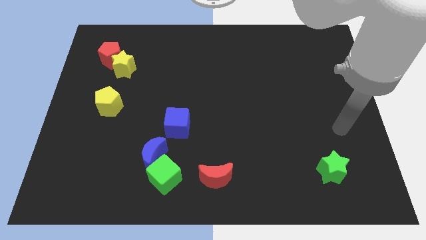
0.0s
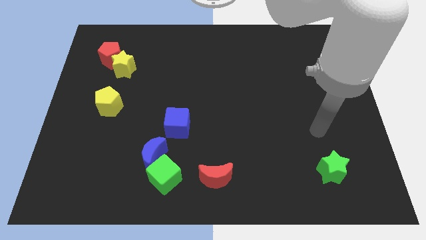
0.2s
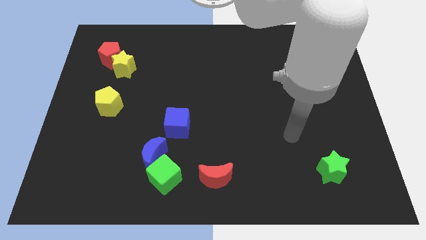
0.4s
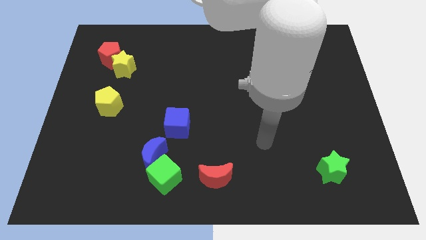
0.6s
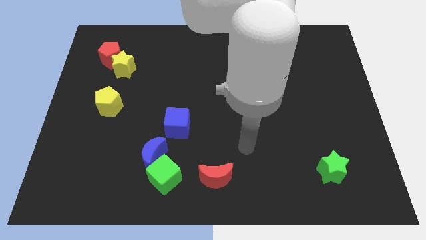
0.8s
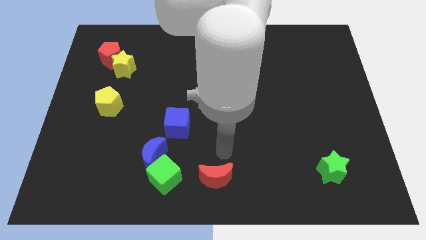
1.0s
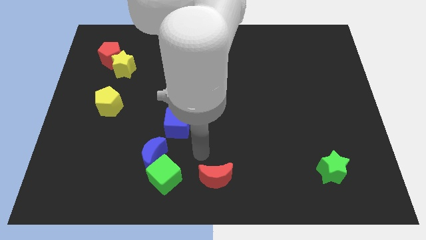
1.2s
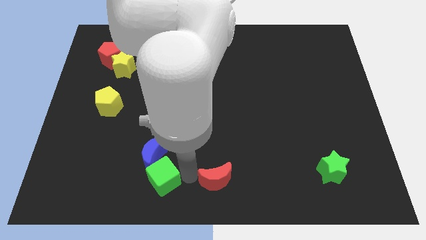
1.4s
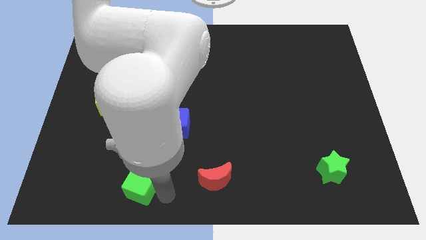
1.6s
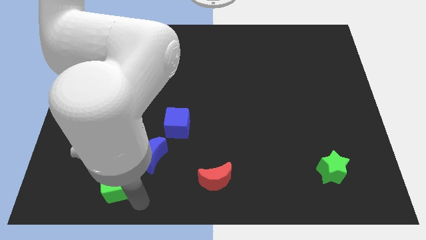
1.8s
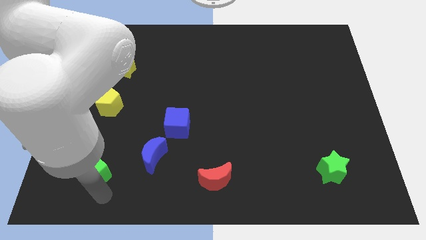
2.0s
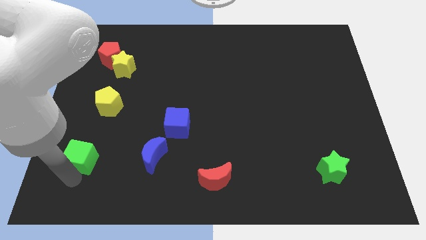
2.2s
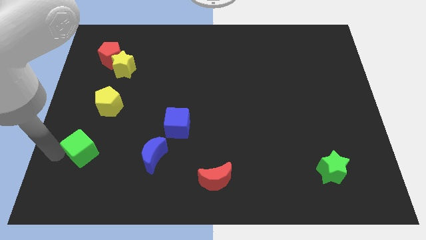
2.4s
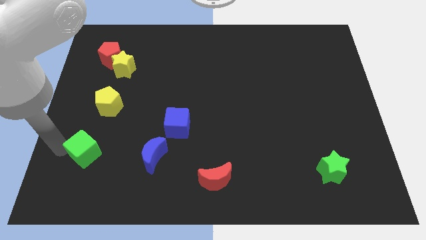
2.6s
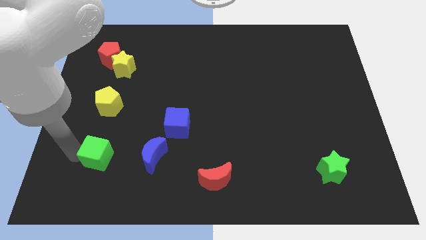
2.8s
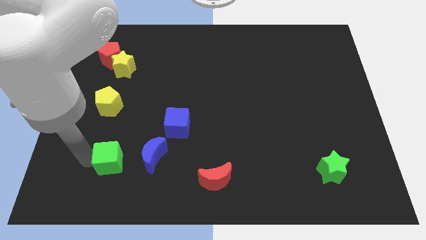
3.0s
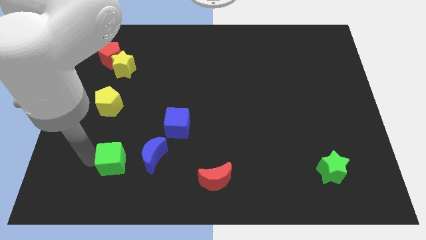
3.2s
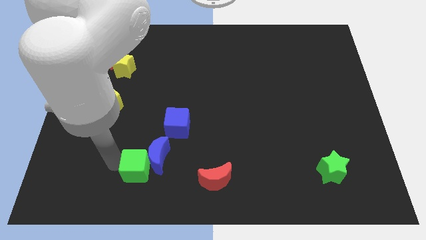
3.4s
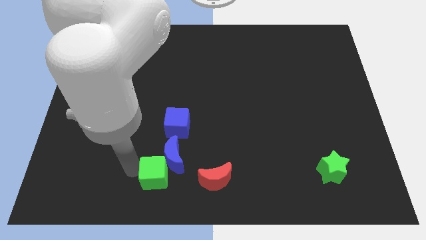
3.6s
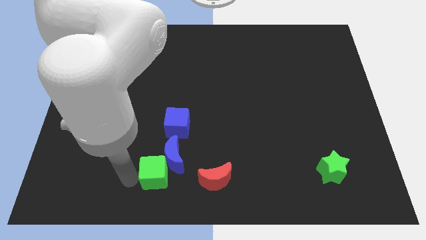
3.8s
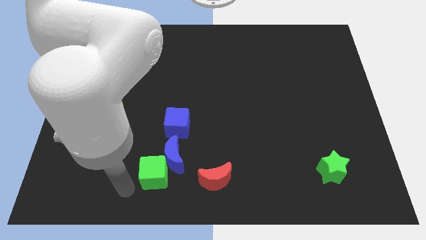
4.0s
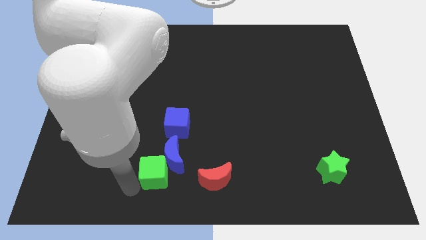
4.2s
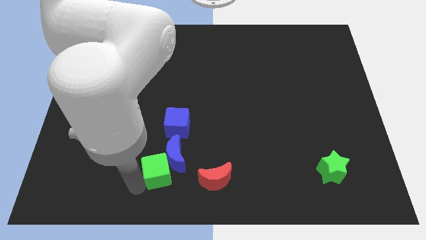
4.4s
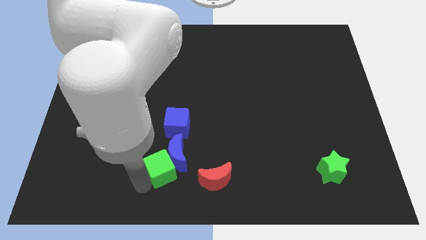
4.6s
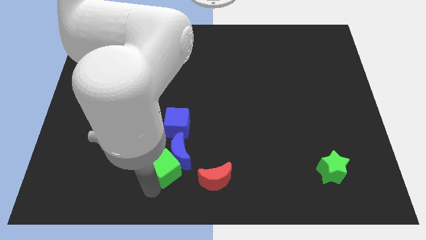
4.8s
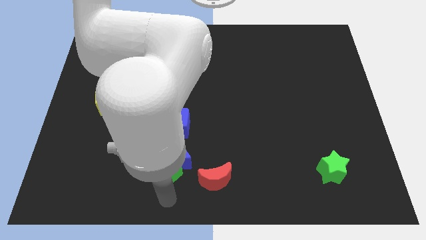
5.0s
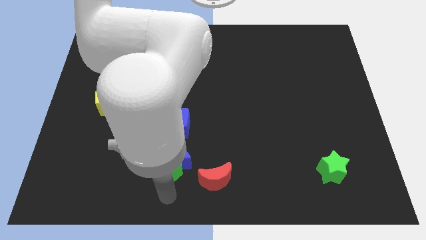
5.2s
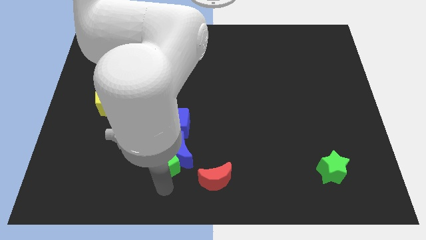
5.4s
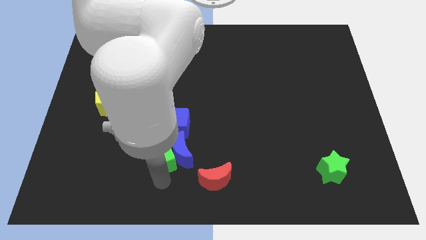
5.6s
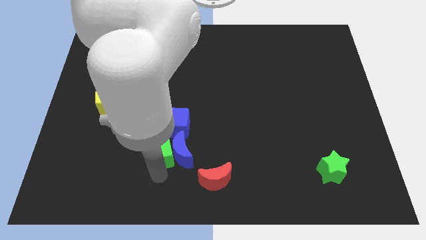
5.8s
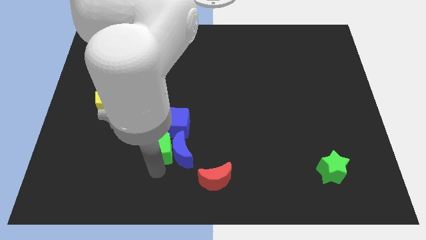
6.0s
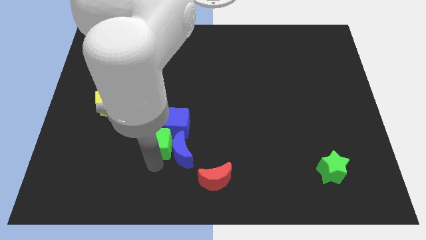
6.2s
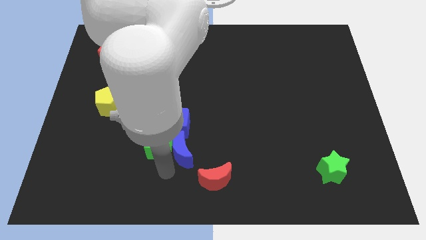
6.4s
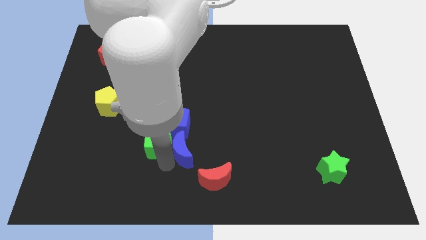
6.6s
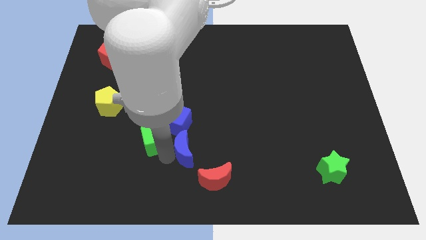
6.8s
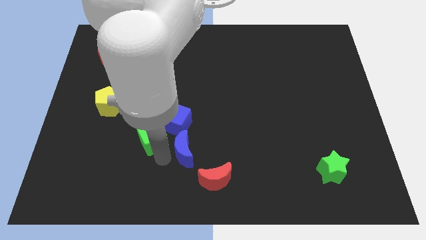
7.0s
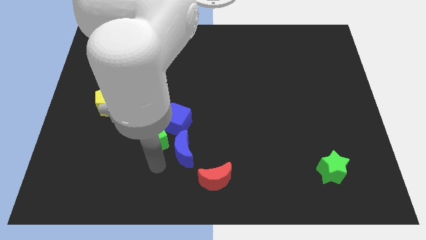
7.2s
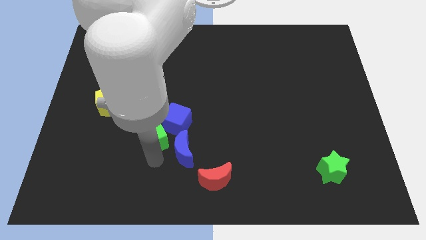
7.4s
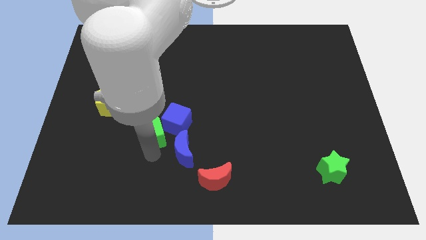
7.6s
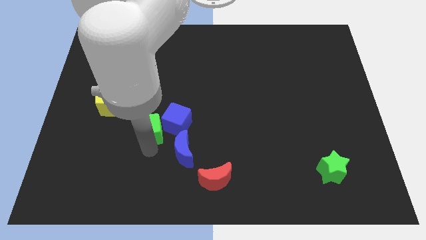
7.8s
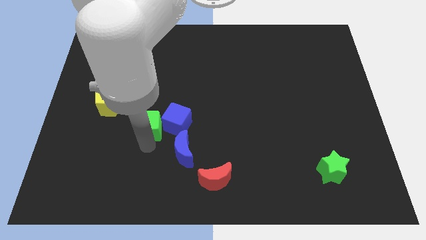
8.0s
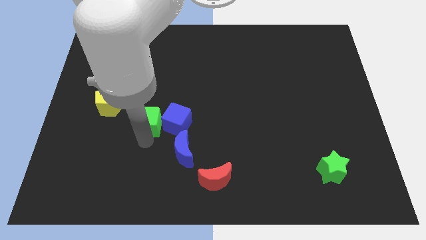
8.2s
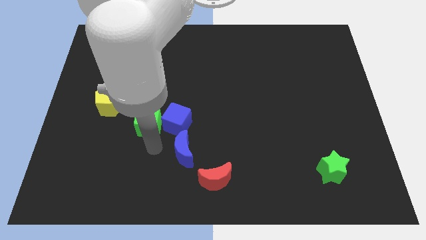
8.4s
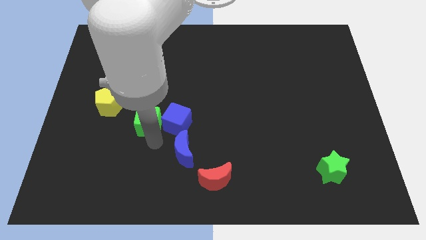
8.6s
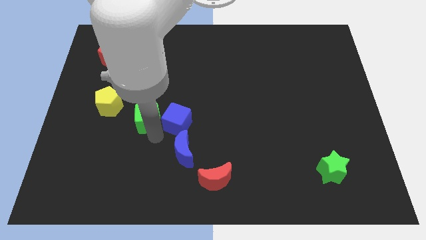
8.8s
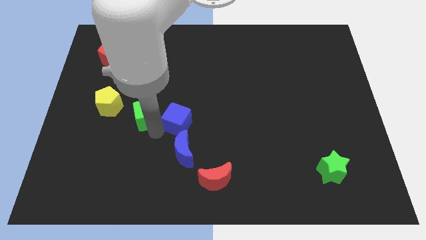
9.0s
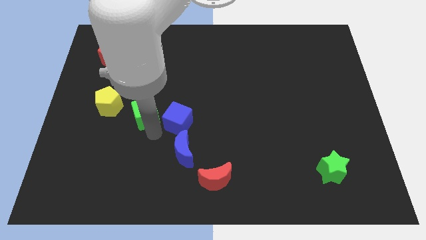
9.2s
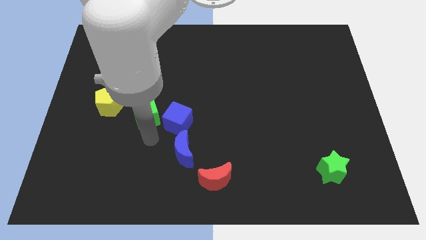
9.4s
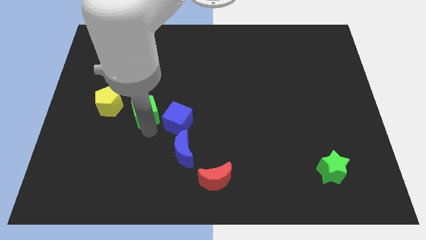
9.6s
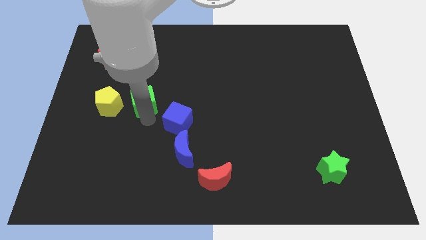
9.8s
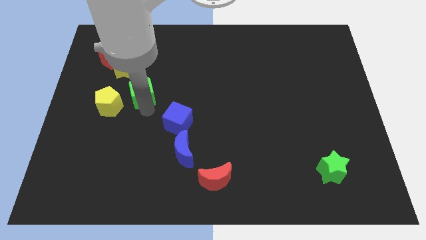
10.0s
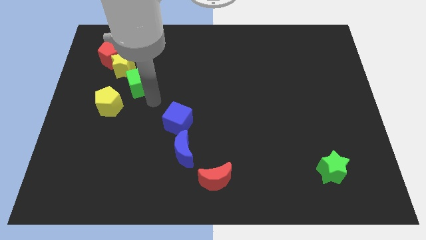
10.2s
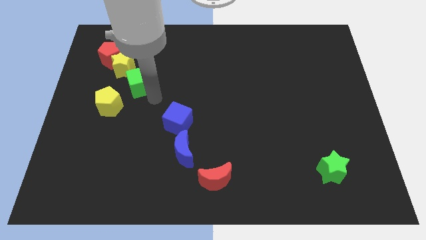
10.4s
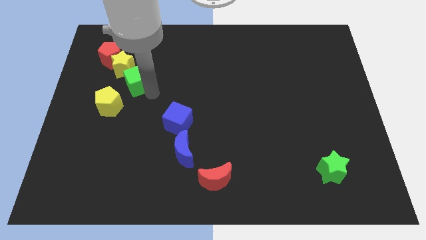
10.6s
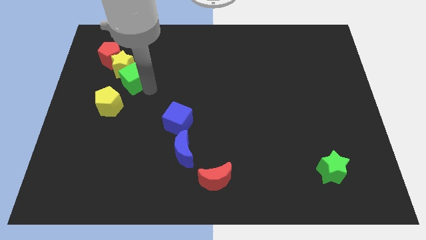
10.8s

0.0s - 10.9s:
push the green cube to the yellow star

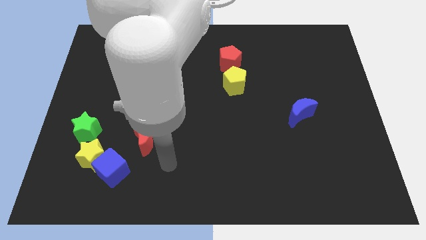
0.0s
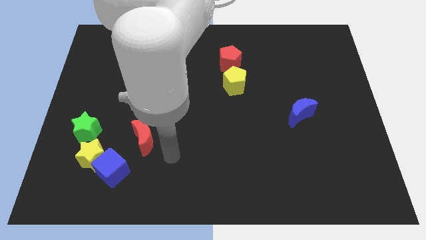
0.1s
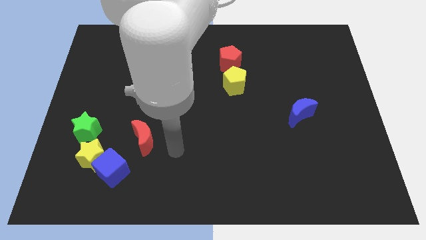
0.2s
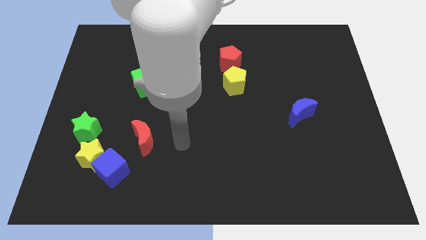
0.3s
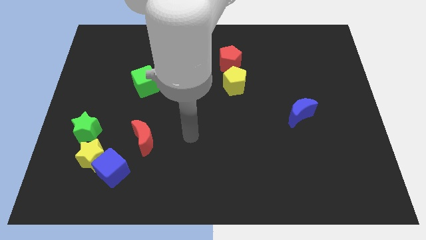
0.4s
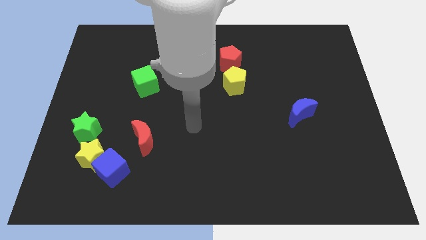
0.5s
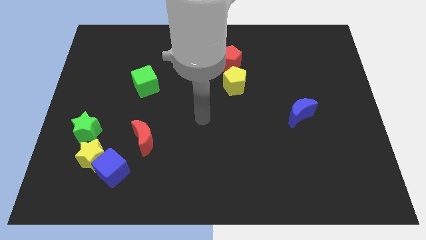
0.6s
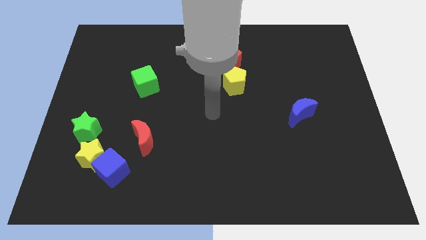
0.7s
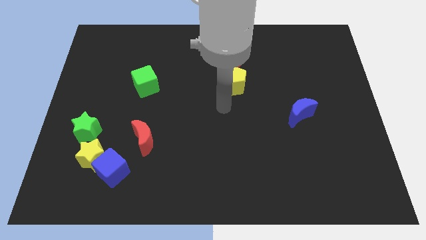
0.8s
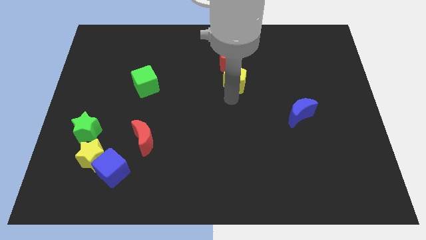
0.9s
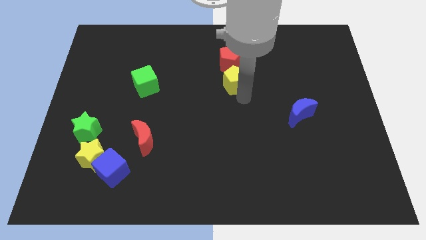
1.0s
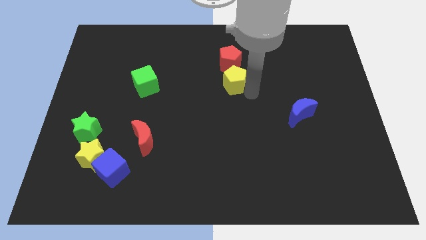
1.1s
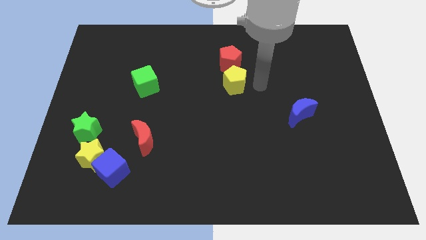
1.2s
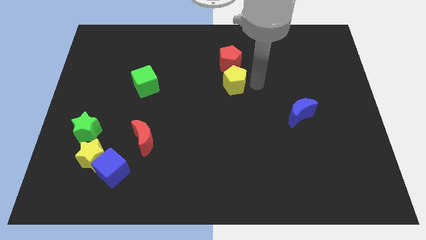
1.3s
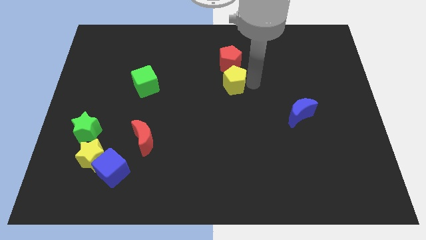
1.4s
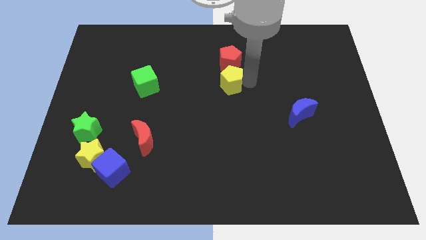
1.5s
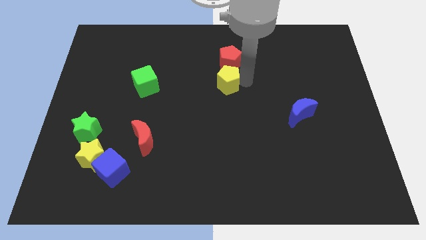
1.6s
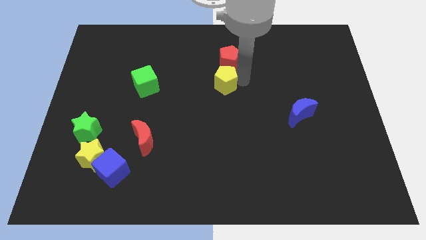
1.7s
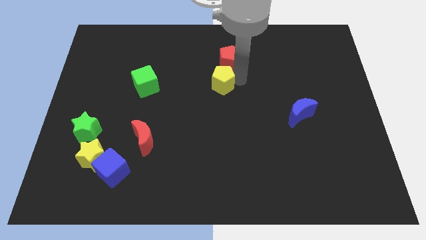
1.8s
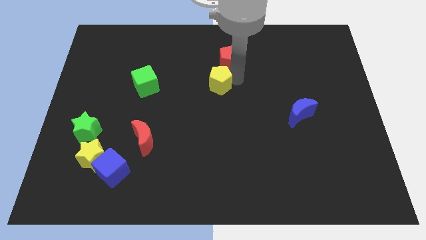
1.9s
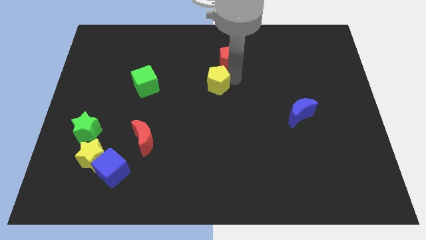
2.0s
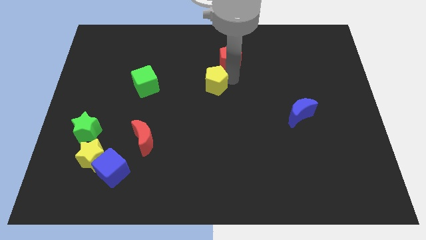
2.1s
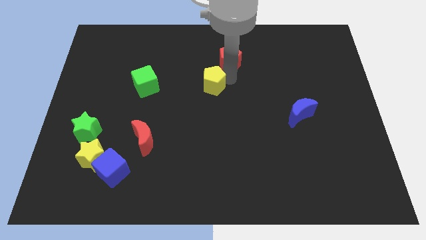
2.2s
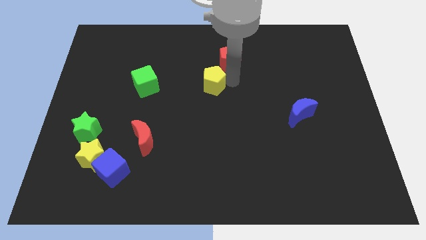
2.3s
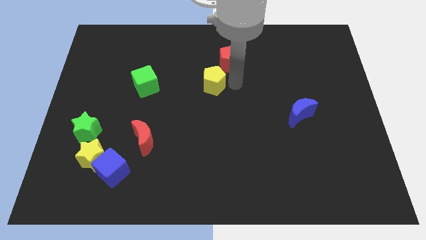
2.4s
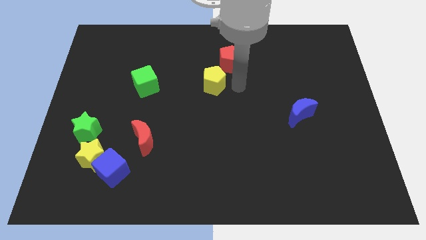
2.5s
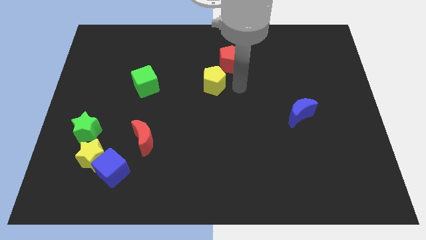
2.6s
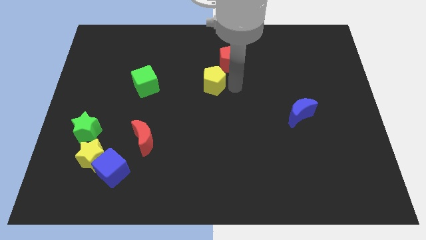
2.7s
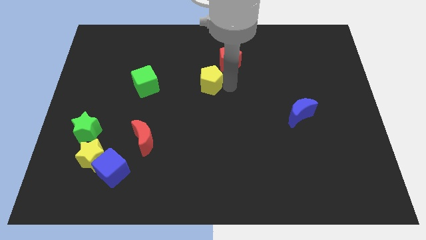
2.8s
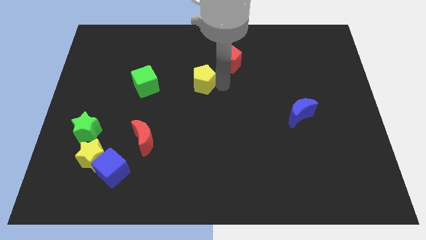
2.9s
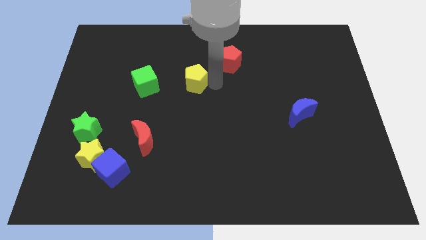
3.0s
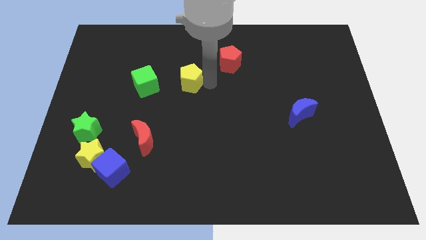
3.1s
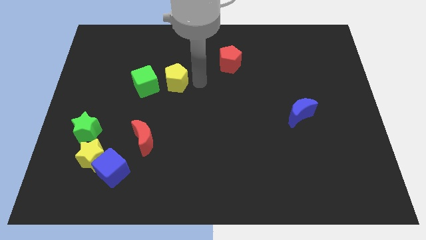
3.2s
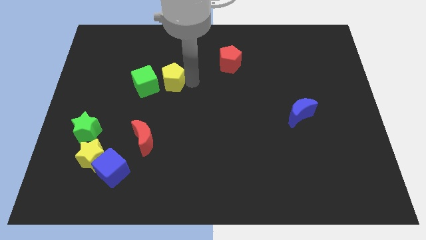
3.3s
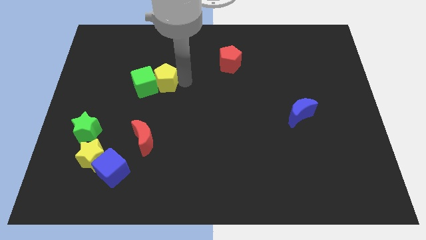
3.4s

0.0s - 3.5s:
move the yellow pentagon close to the green cube
